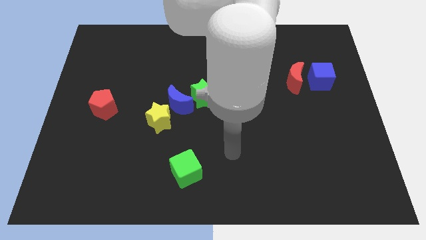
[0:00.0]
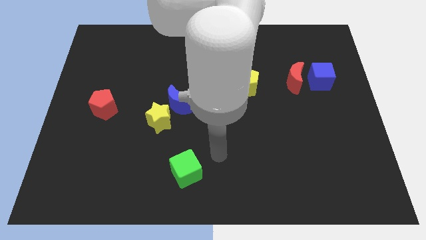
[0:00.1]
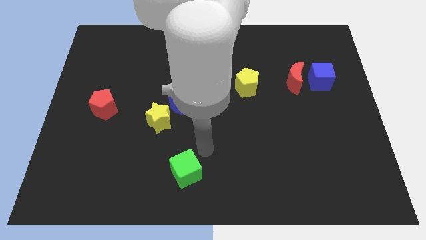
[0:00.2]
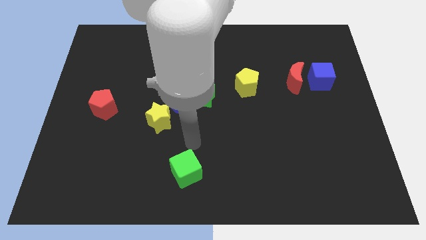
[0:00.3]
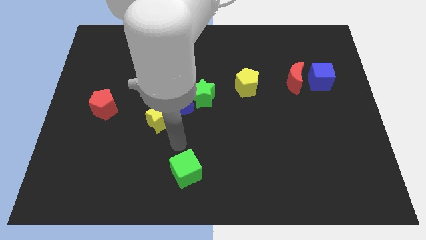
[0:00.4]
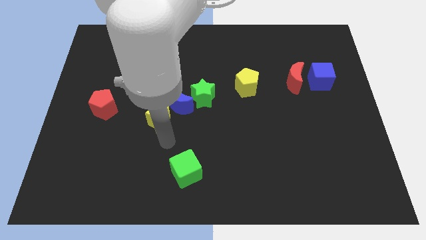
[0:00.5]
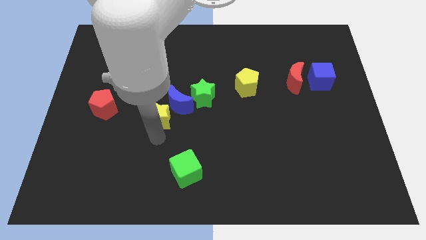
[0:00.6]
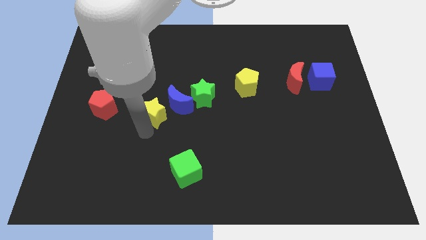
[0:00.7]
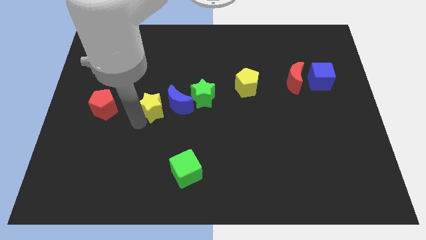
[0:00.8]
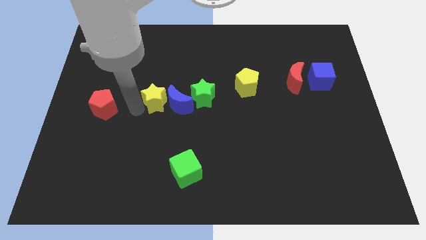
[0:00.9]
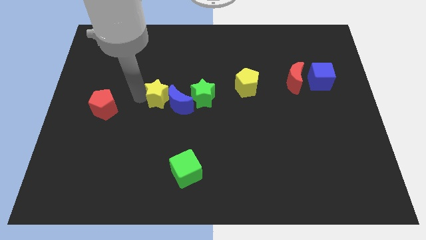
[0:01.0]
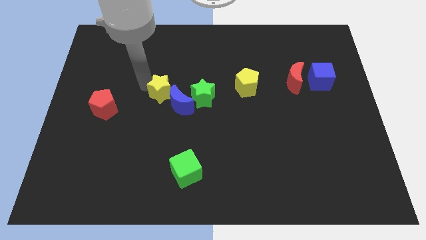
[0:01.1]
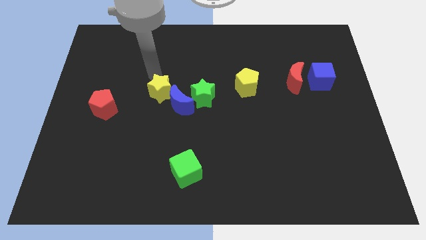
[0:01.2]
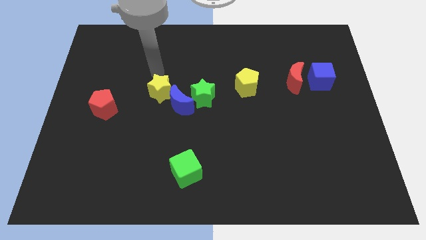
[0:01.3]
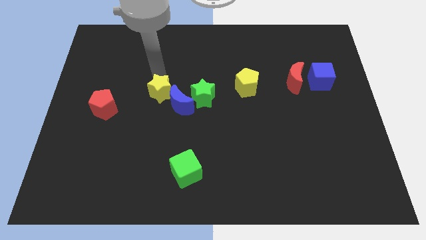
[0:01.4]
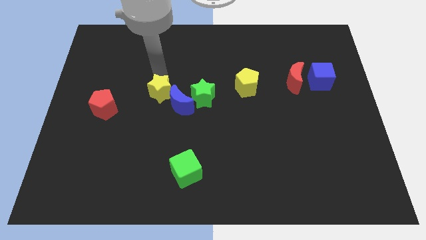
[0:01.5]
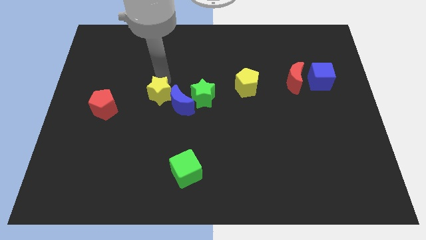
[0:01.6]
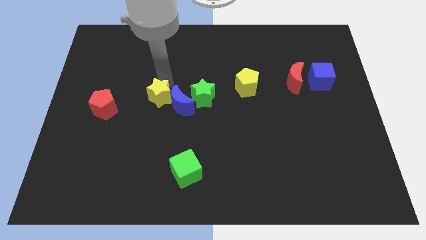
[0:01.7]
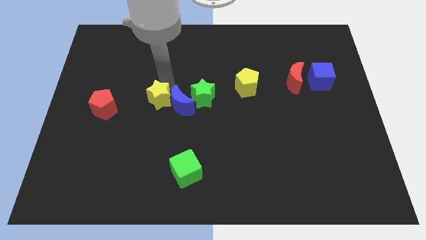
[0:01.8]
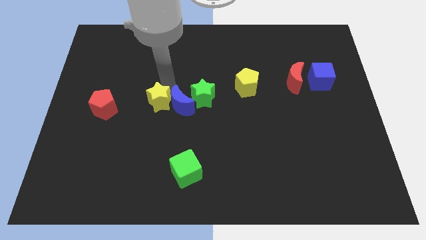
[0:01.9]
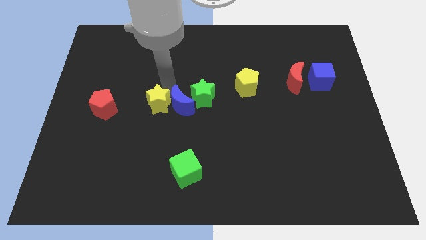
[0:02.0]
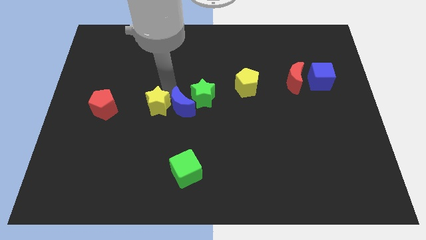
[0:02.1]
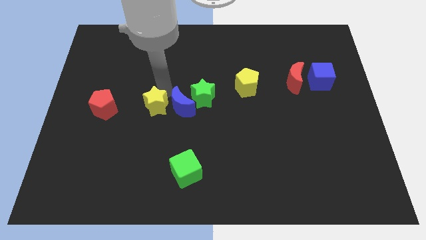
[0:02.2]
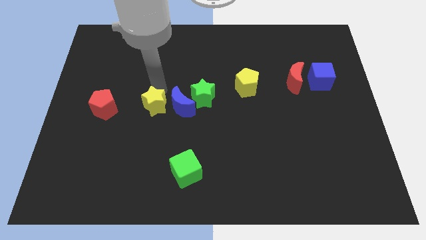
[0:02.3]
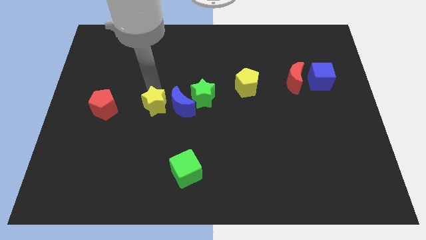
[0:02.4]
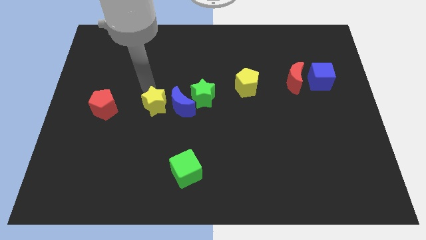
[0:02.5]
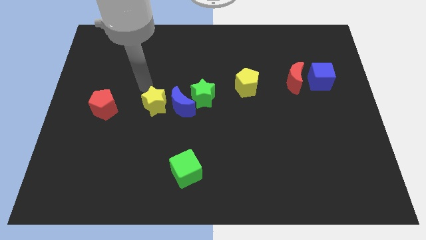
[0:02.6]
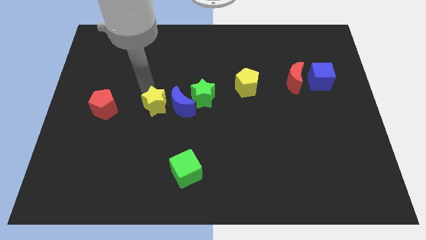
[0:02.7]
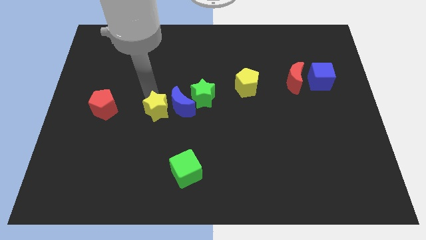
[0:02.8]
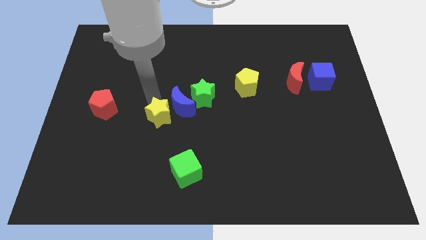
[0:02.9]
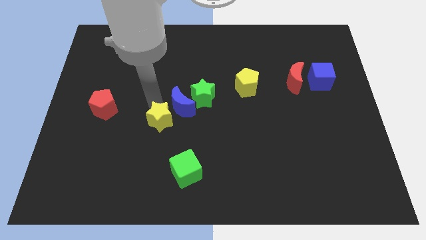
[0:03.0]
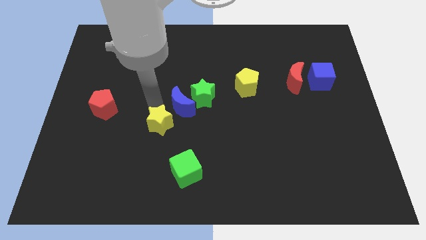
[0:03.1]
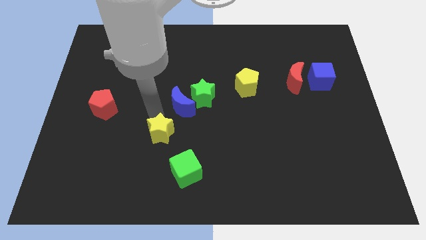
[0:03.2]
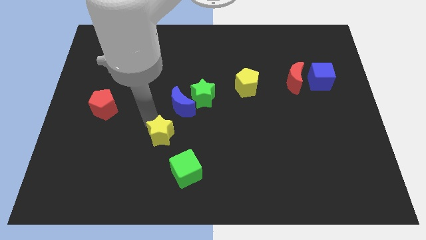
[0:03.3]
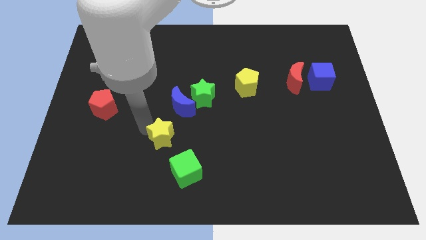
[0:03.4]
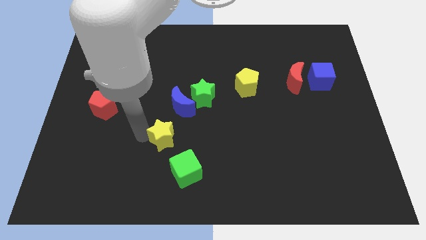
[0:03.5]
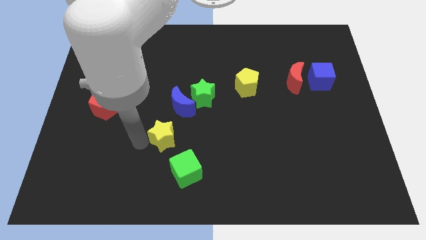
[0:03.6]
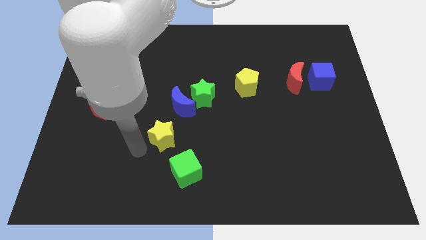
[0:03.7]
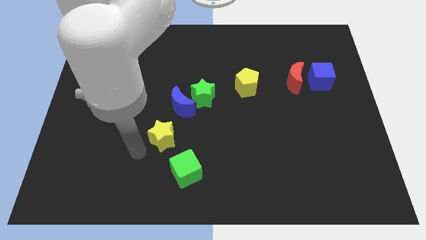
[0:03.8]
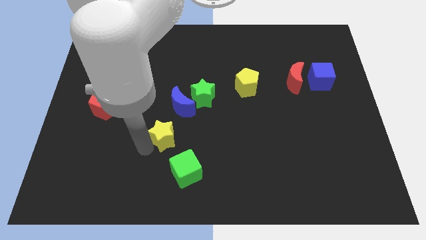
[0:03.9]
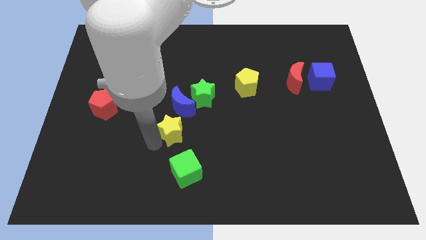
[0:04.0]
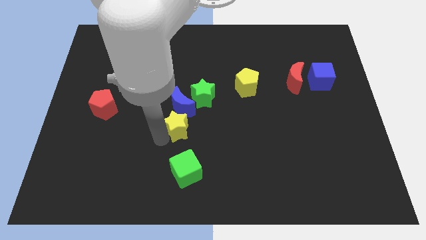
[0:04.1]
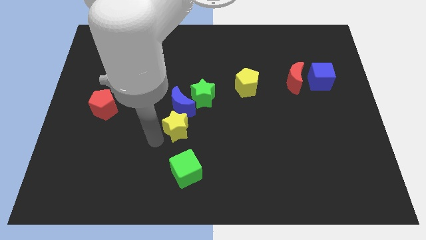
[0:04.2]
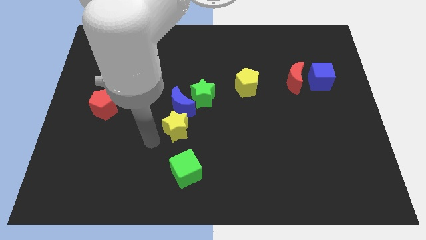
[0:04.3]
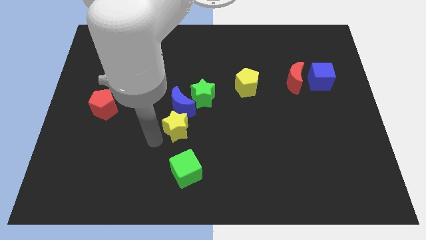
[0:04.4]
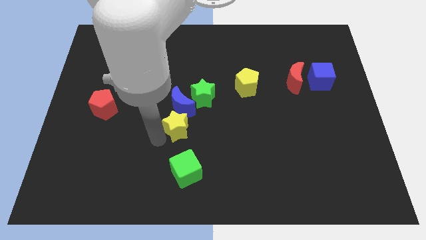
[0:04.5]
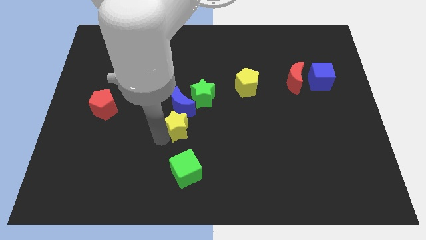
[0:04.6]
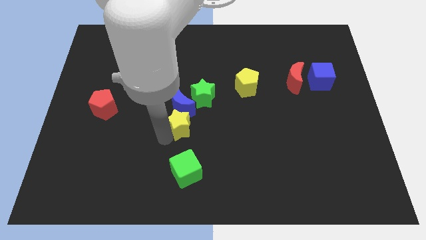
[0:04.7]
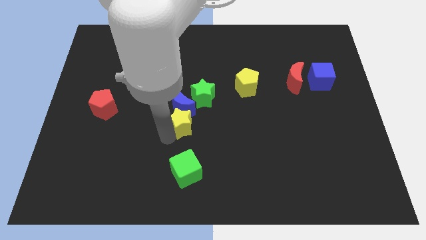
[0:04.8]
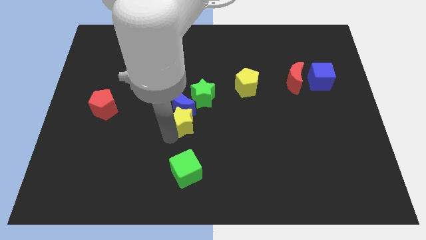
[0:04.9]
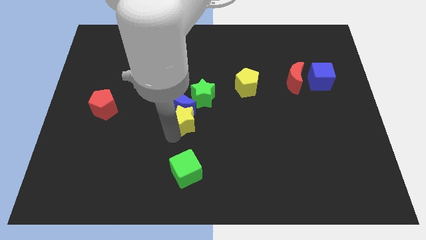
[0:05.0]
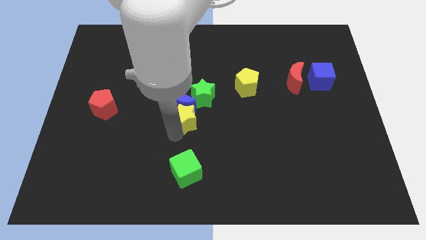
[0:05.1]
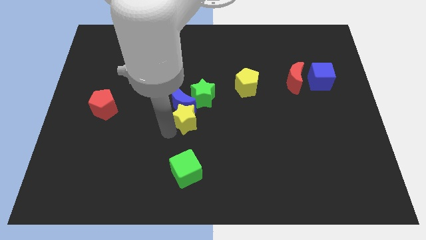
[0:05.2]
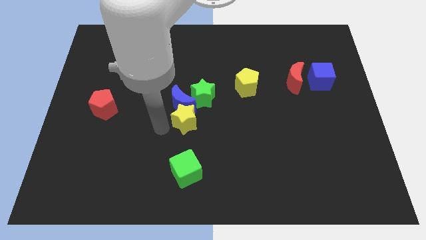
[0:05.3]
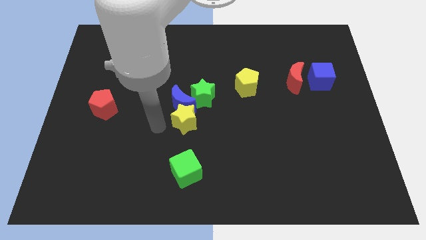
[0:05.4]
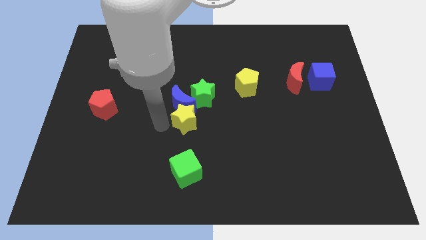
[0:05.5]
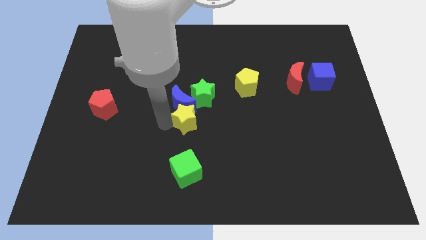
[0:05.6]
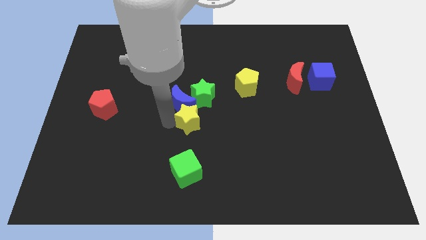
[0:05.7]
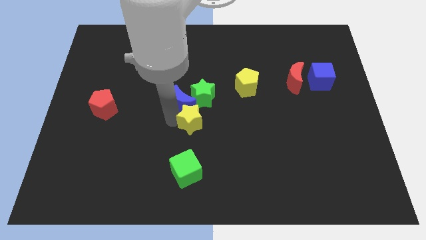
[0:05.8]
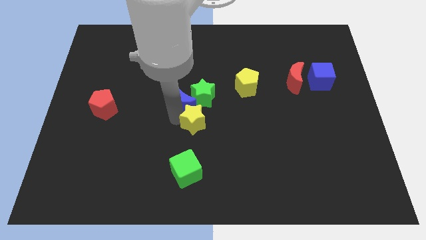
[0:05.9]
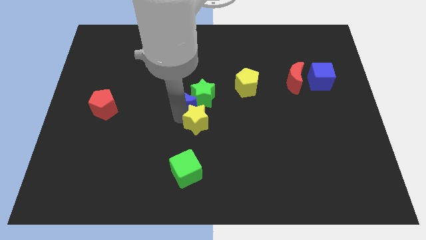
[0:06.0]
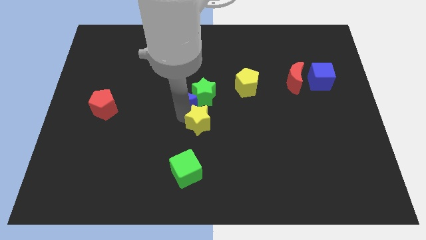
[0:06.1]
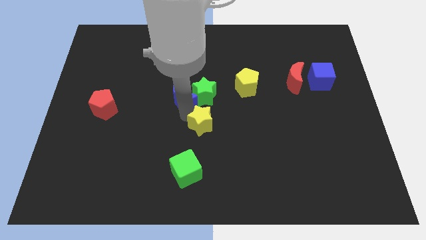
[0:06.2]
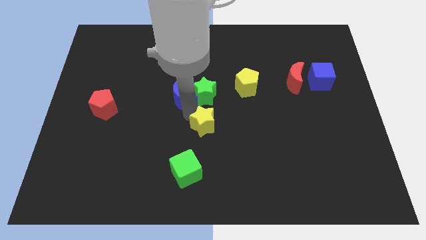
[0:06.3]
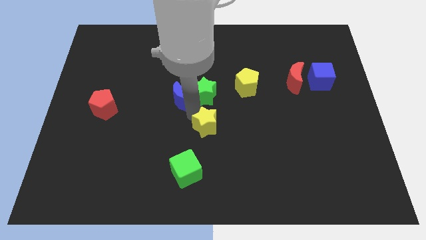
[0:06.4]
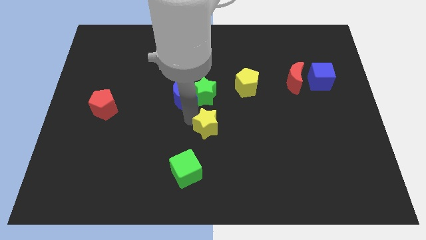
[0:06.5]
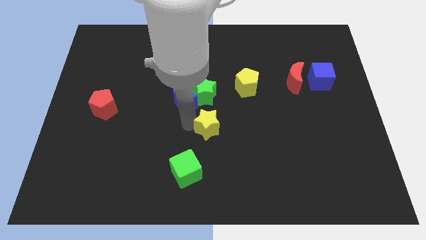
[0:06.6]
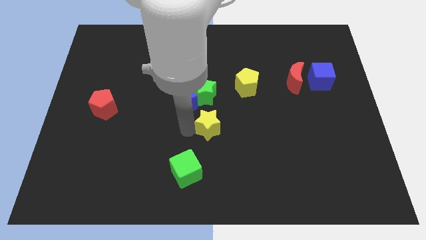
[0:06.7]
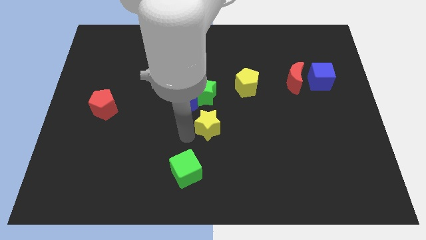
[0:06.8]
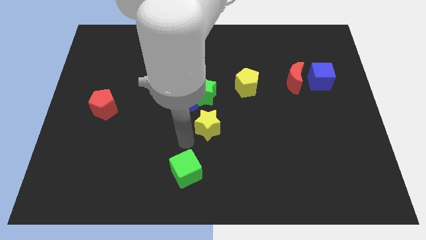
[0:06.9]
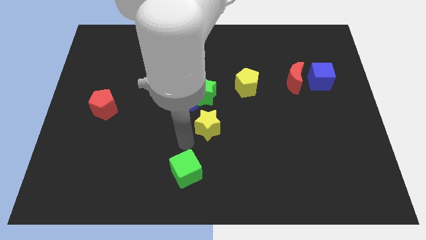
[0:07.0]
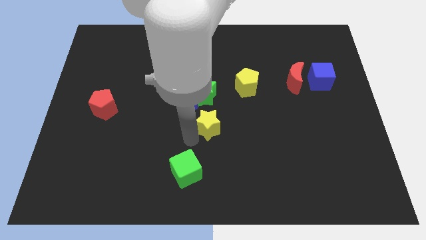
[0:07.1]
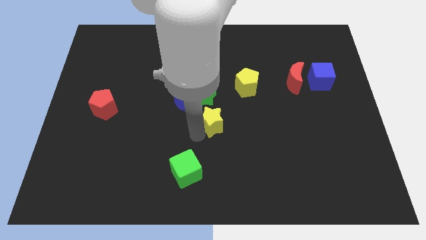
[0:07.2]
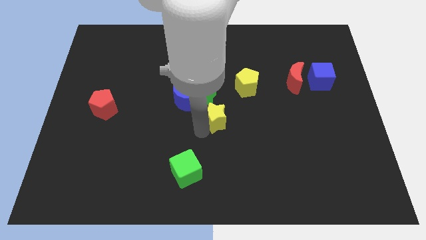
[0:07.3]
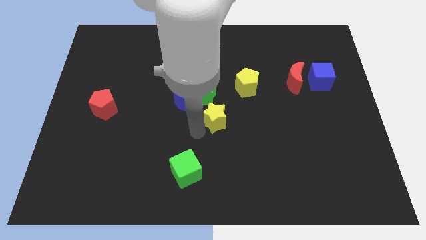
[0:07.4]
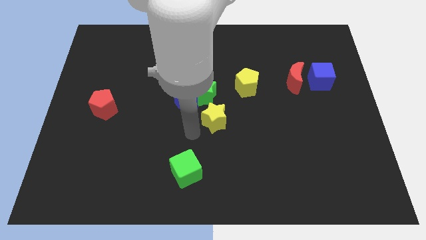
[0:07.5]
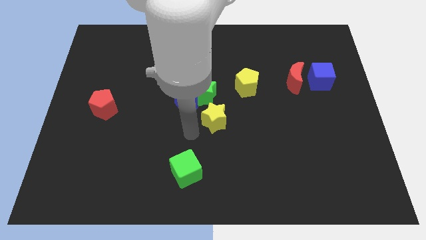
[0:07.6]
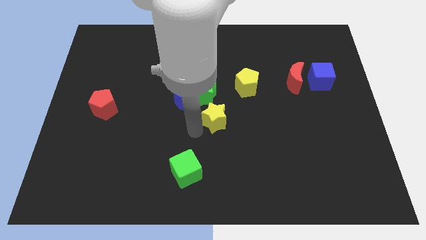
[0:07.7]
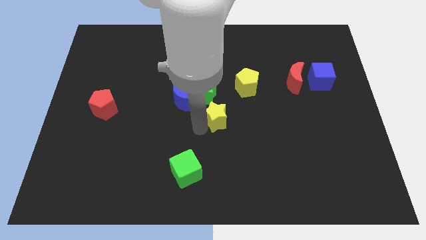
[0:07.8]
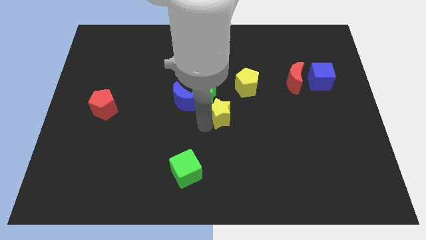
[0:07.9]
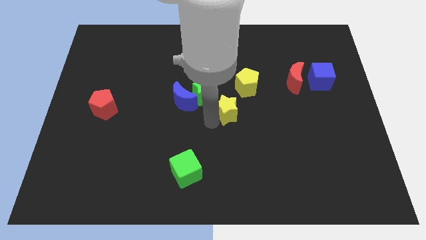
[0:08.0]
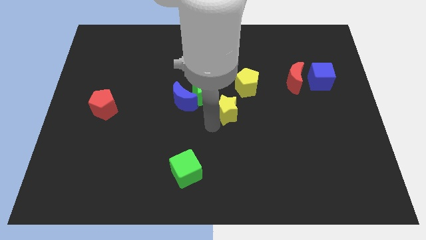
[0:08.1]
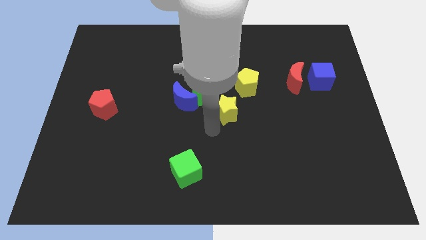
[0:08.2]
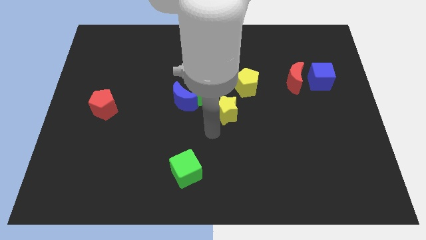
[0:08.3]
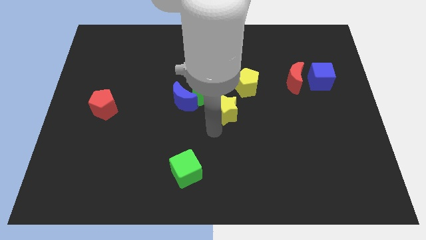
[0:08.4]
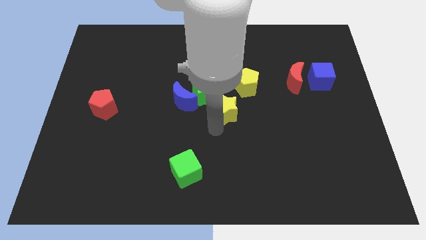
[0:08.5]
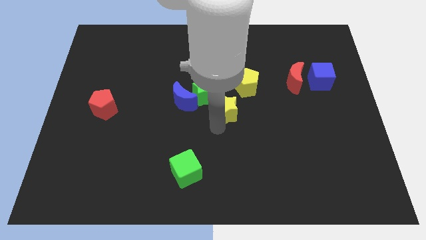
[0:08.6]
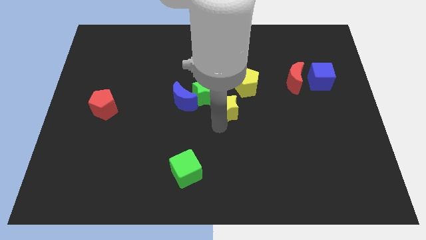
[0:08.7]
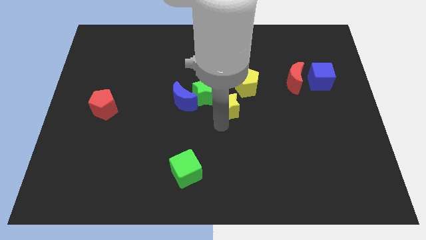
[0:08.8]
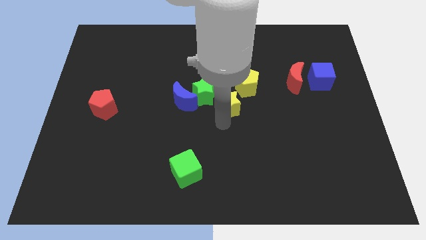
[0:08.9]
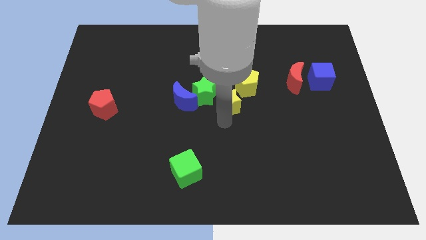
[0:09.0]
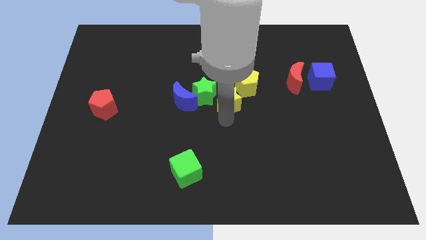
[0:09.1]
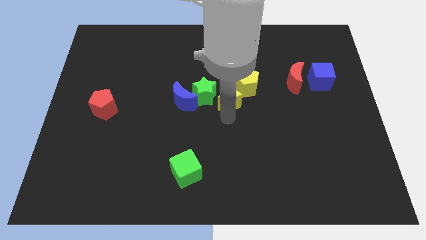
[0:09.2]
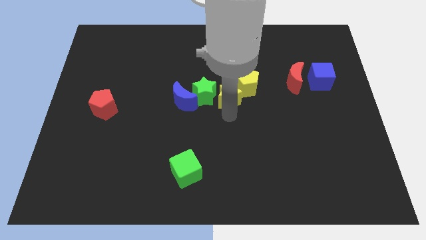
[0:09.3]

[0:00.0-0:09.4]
move the yellow star next to the yellow pentagon
